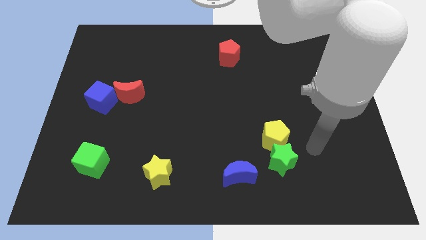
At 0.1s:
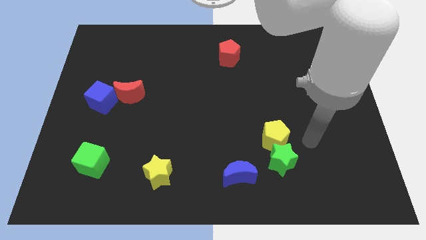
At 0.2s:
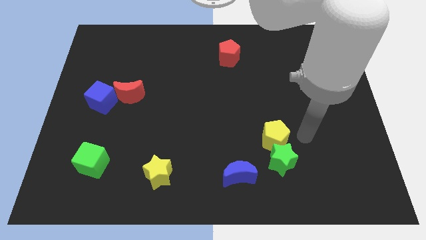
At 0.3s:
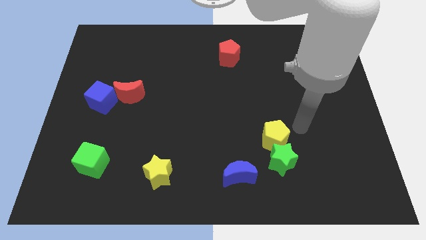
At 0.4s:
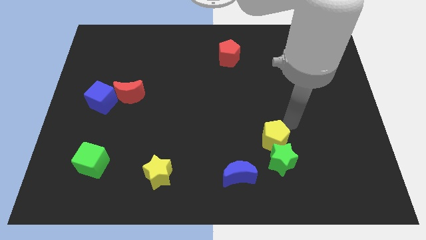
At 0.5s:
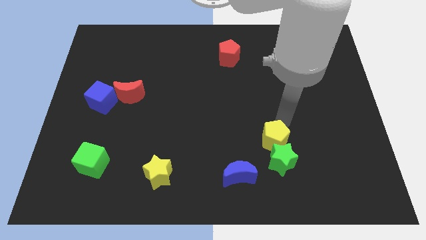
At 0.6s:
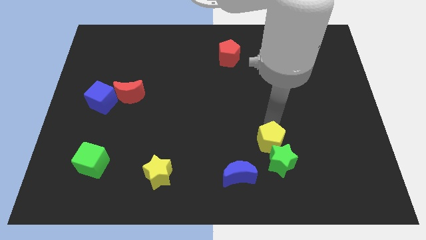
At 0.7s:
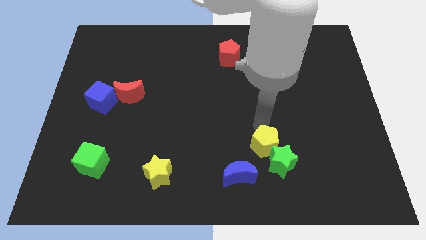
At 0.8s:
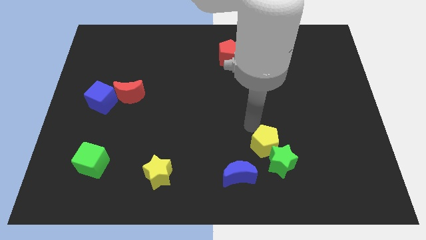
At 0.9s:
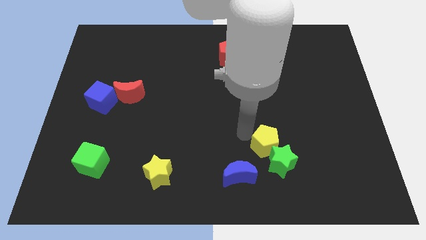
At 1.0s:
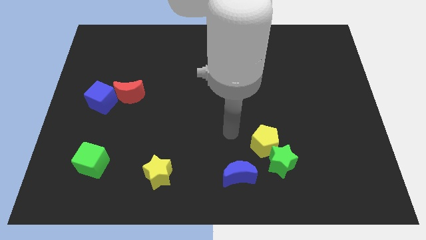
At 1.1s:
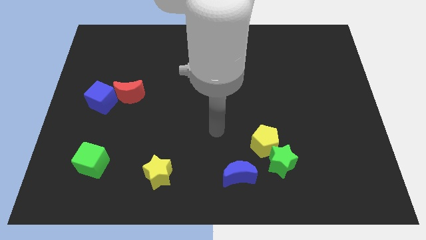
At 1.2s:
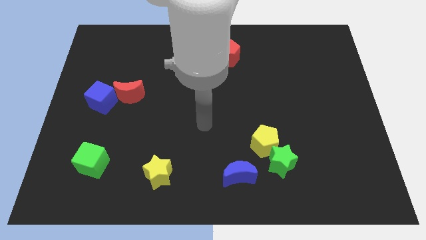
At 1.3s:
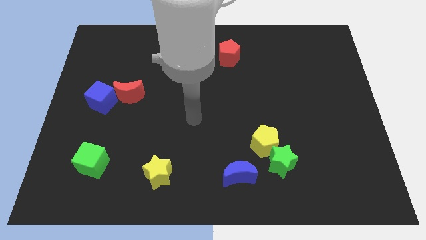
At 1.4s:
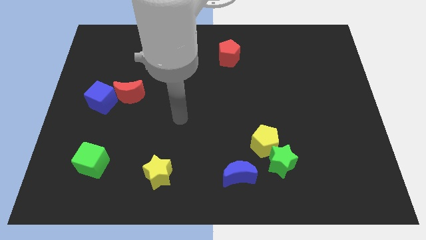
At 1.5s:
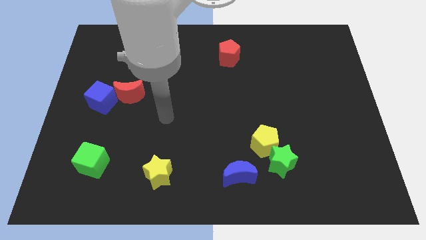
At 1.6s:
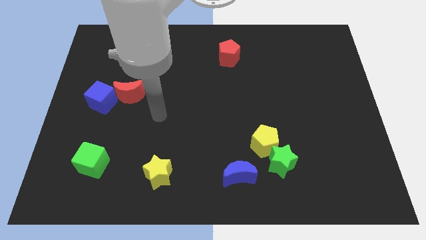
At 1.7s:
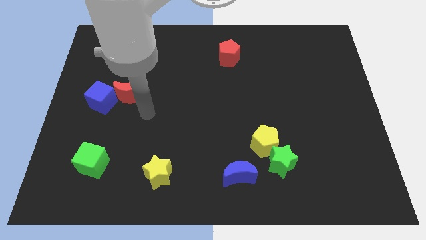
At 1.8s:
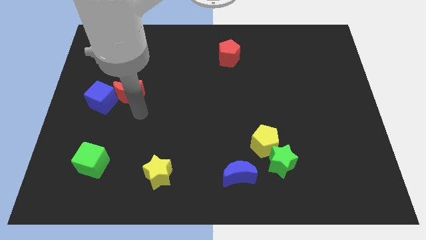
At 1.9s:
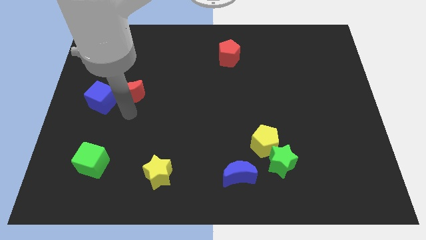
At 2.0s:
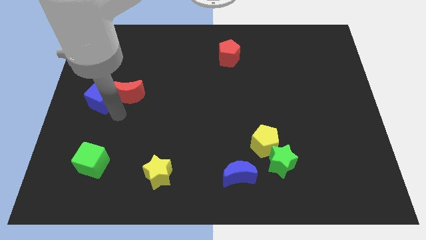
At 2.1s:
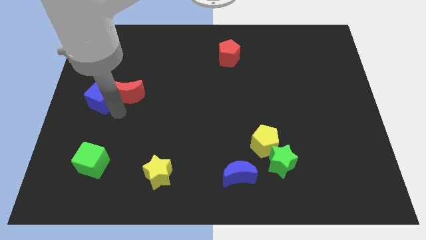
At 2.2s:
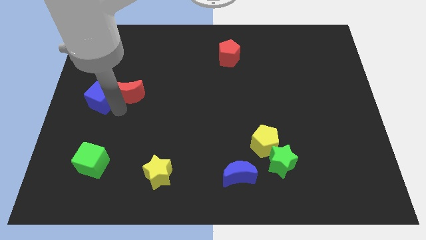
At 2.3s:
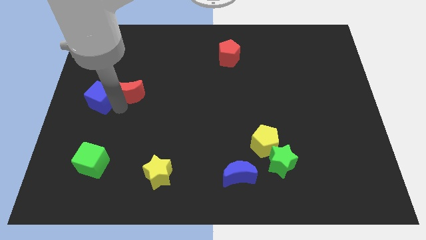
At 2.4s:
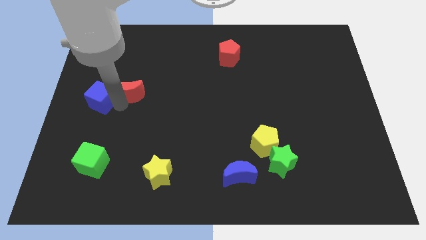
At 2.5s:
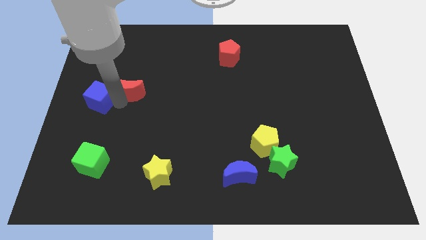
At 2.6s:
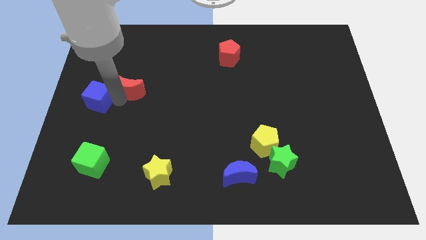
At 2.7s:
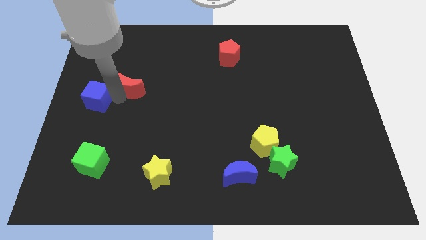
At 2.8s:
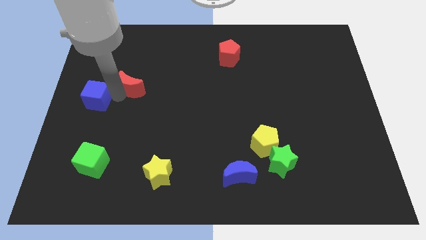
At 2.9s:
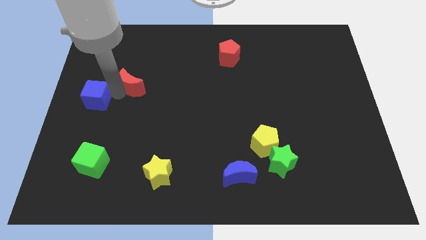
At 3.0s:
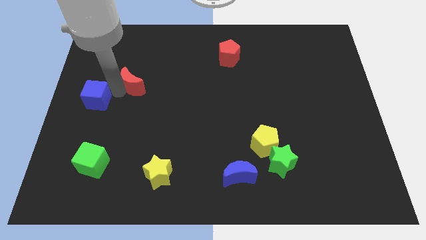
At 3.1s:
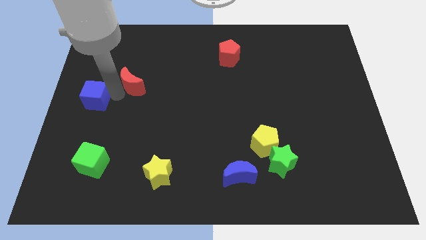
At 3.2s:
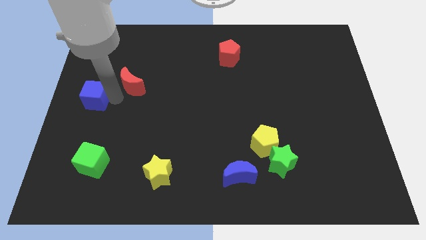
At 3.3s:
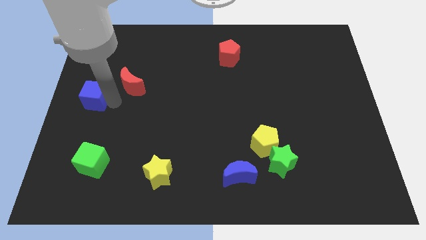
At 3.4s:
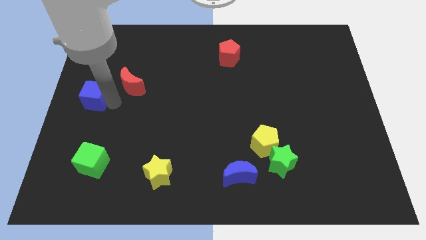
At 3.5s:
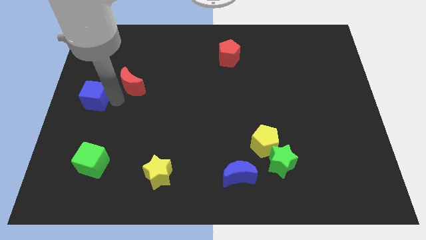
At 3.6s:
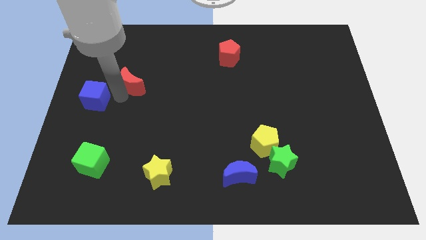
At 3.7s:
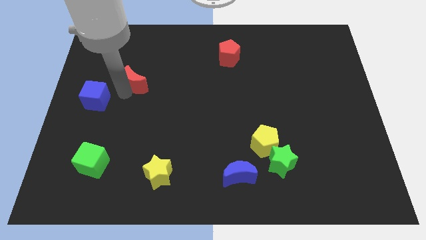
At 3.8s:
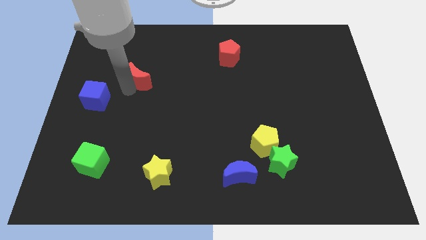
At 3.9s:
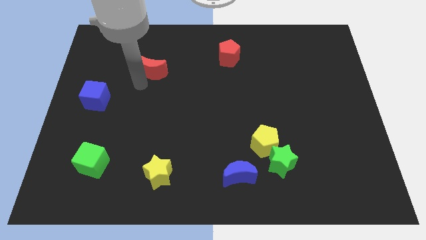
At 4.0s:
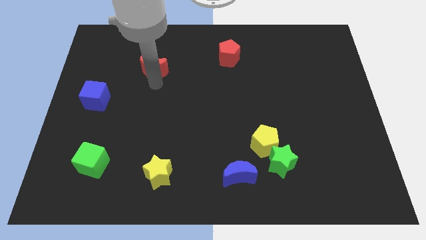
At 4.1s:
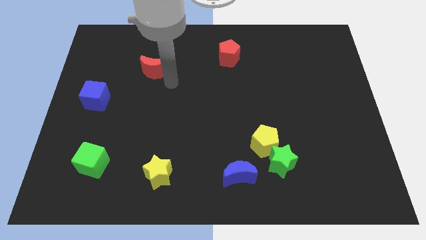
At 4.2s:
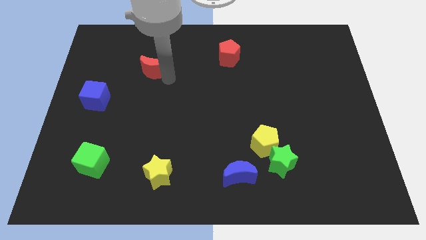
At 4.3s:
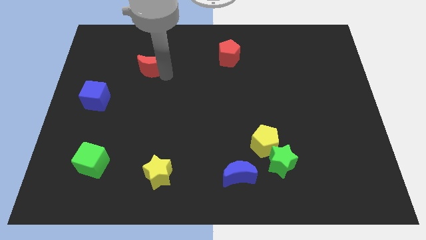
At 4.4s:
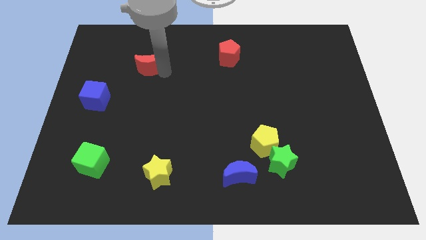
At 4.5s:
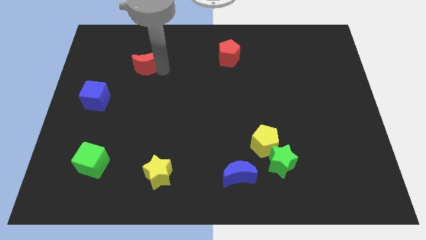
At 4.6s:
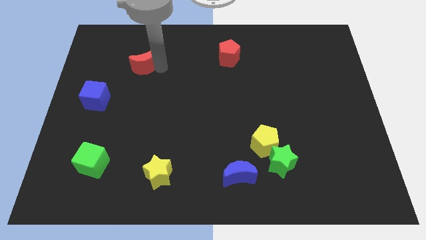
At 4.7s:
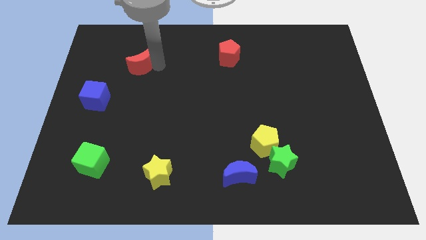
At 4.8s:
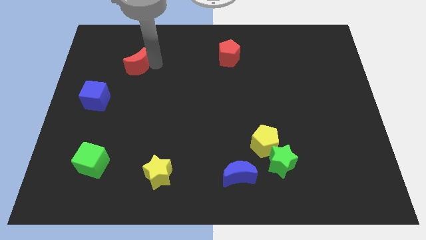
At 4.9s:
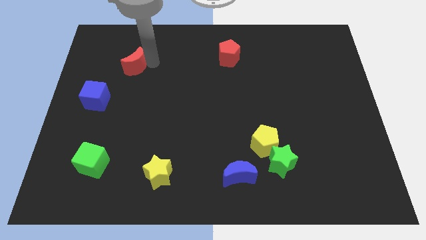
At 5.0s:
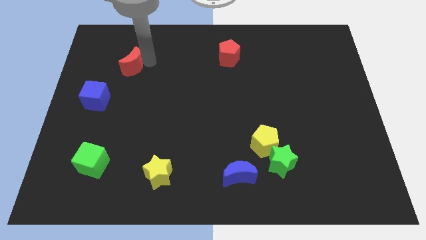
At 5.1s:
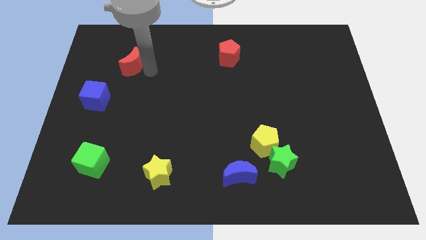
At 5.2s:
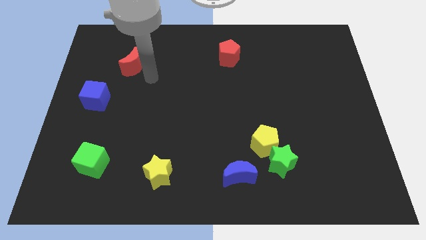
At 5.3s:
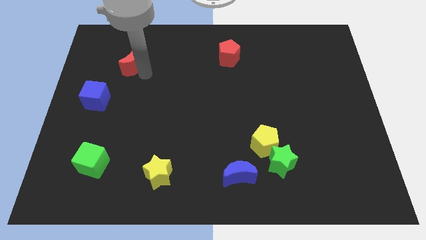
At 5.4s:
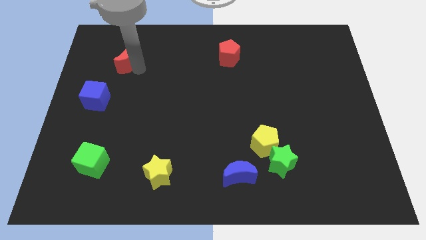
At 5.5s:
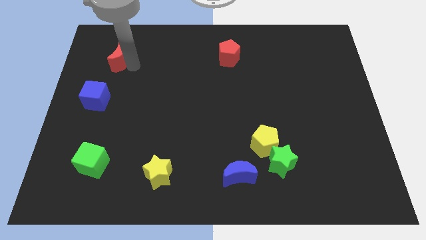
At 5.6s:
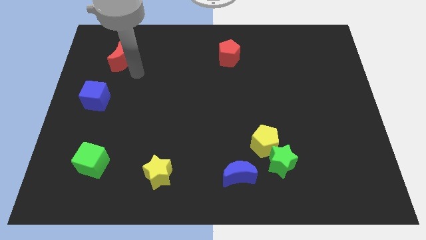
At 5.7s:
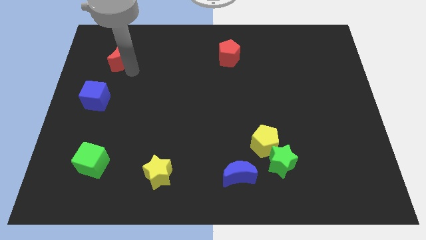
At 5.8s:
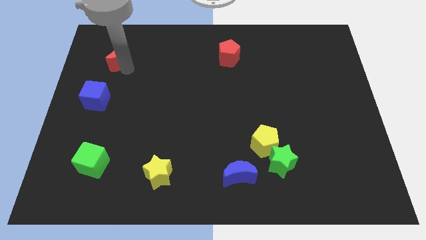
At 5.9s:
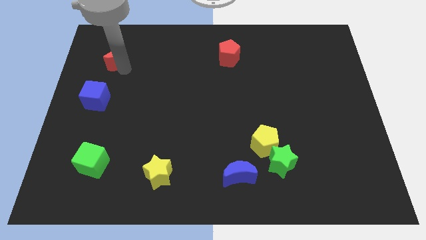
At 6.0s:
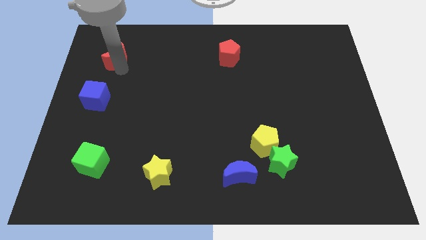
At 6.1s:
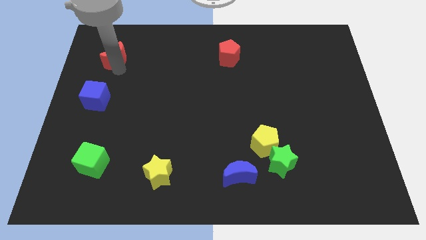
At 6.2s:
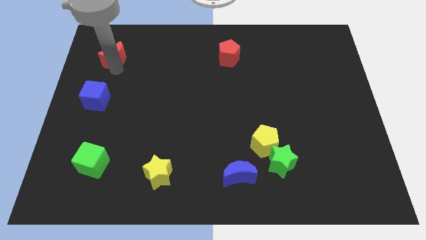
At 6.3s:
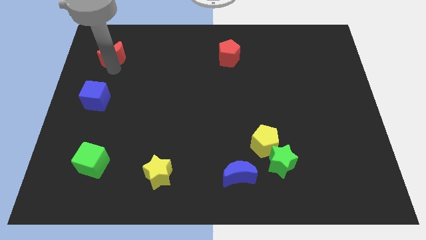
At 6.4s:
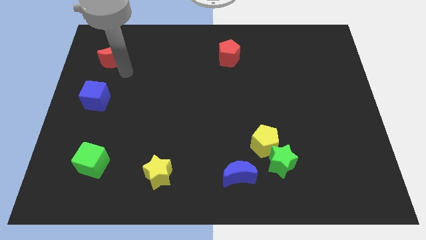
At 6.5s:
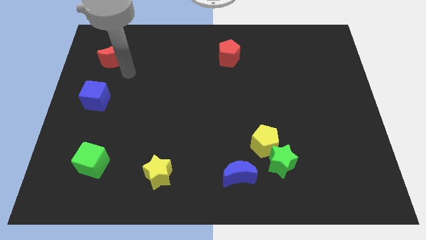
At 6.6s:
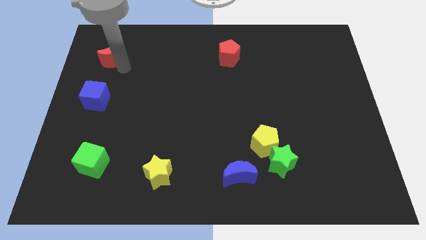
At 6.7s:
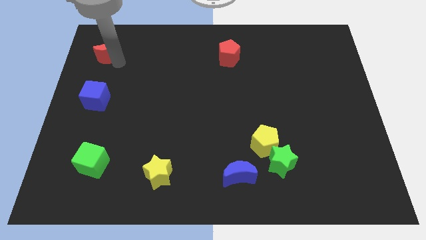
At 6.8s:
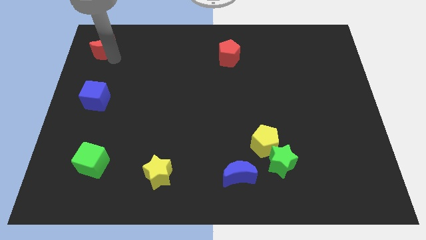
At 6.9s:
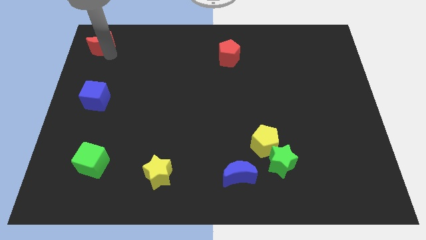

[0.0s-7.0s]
put the red moon to the top left
